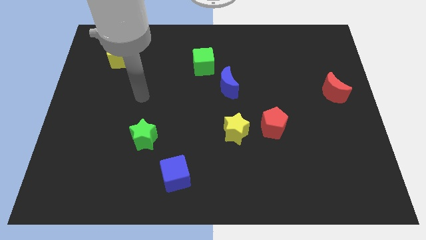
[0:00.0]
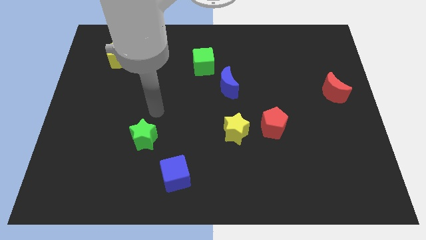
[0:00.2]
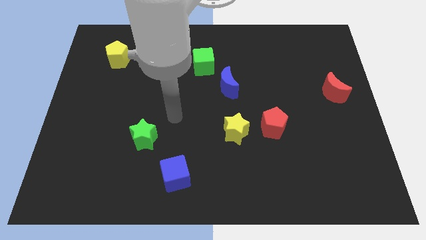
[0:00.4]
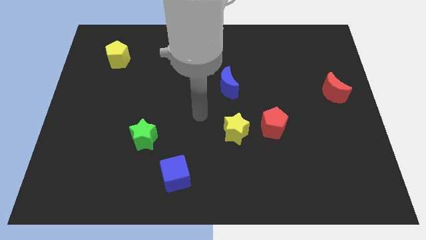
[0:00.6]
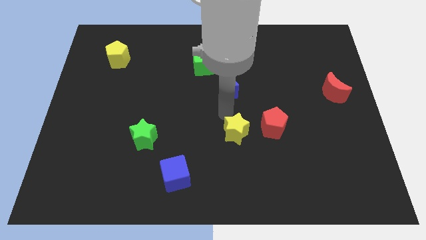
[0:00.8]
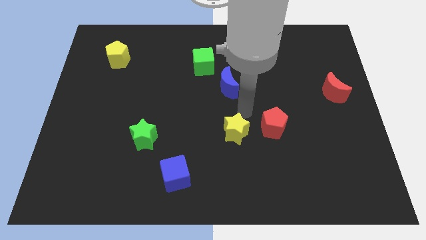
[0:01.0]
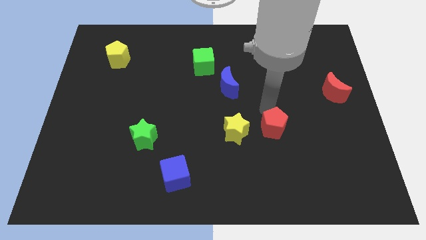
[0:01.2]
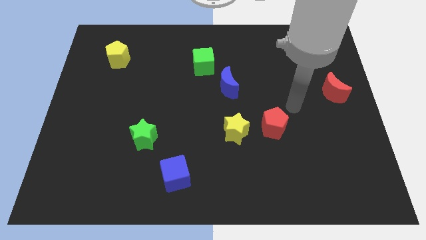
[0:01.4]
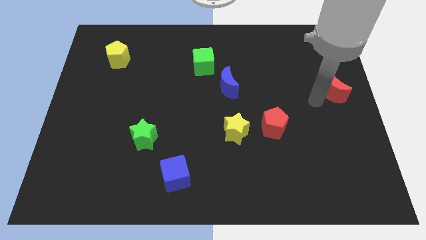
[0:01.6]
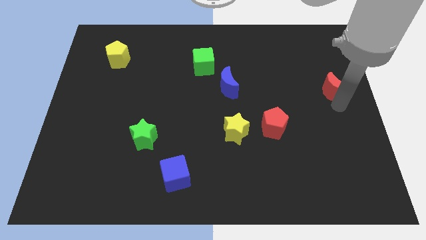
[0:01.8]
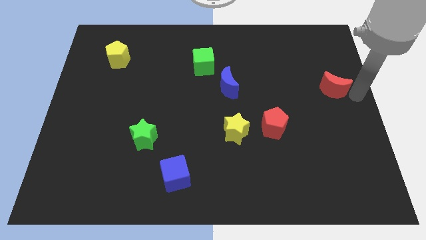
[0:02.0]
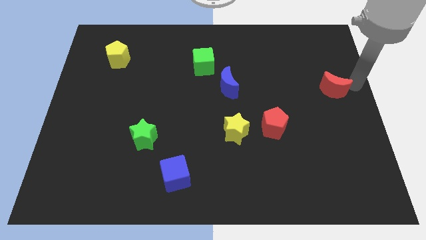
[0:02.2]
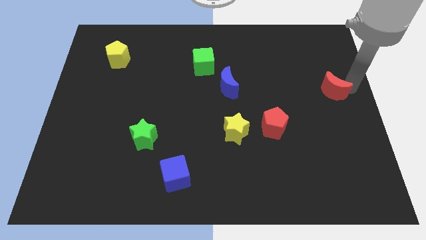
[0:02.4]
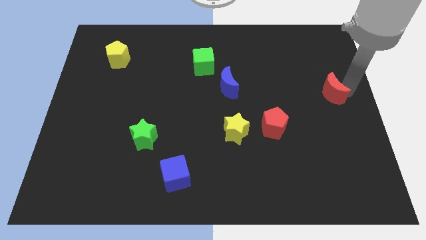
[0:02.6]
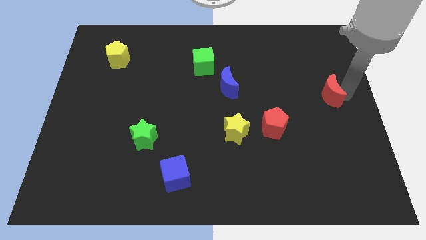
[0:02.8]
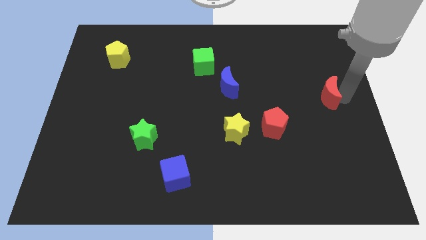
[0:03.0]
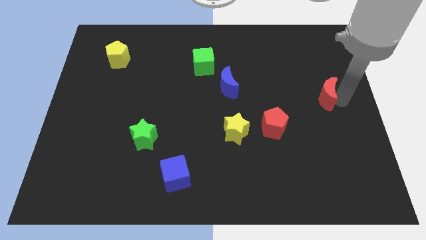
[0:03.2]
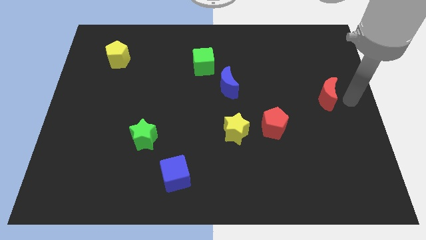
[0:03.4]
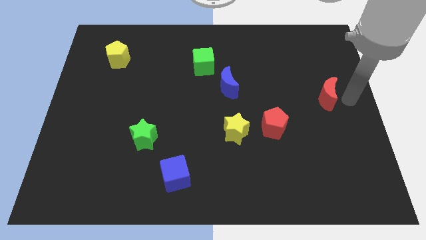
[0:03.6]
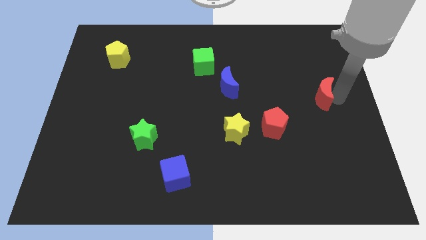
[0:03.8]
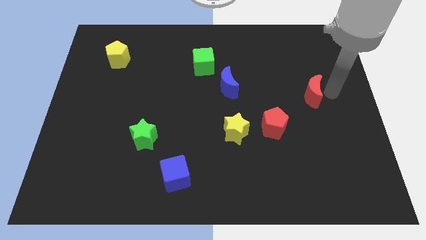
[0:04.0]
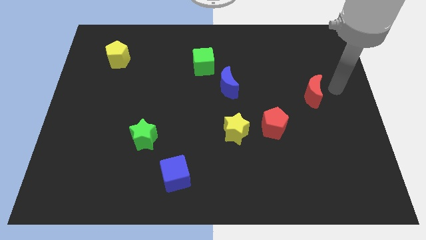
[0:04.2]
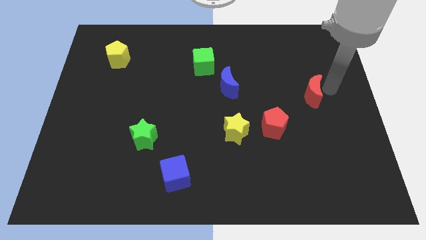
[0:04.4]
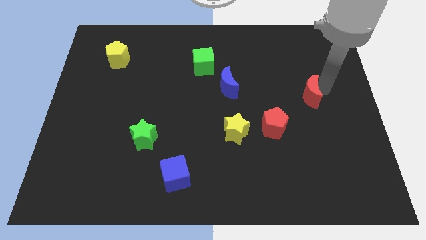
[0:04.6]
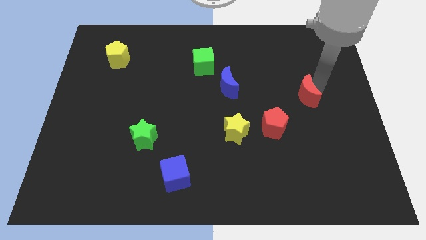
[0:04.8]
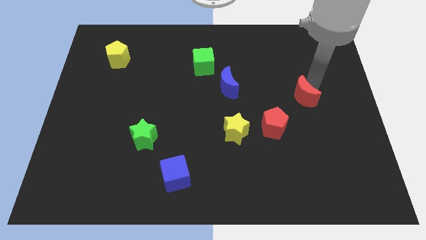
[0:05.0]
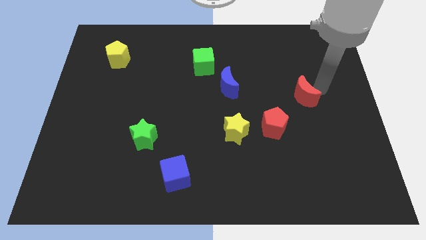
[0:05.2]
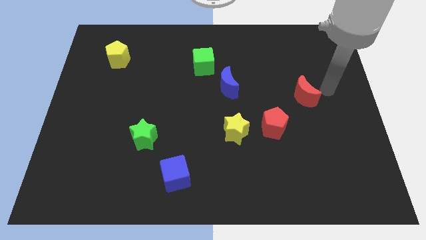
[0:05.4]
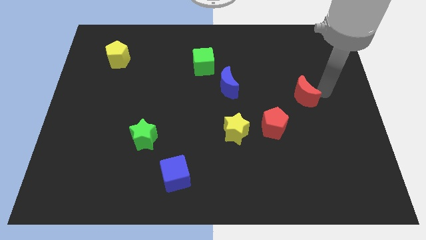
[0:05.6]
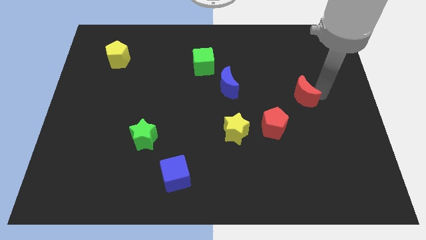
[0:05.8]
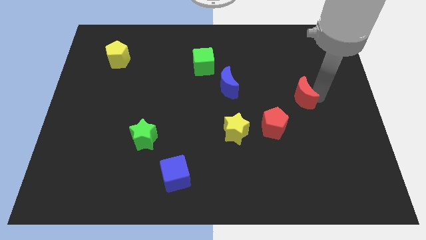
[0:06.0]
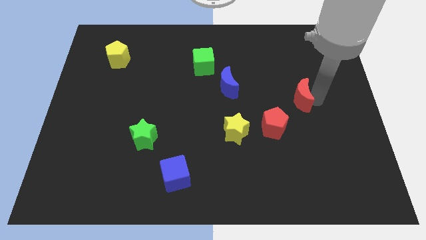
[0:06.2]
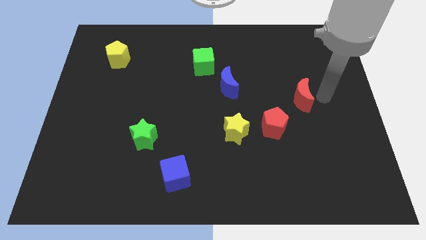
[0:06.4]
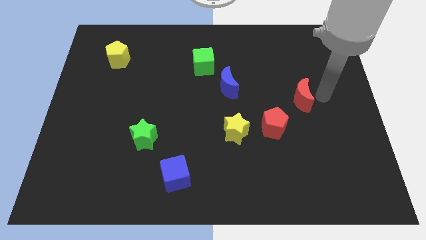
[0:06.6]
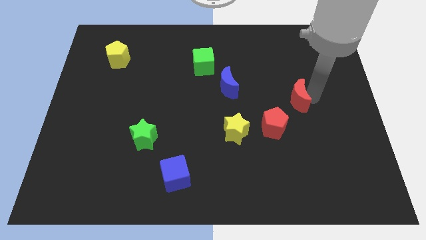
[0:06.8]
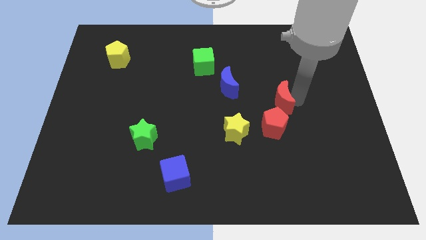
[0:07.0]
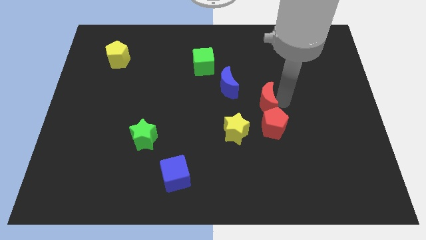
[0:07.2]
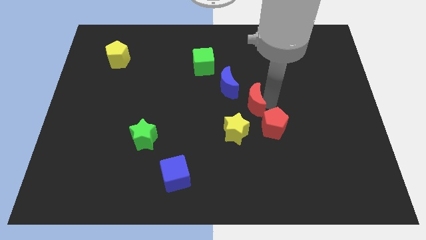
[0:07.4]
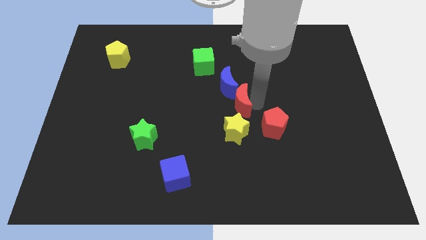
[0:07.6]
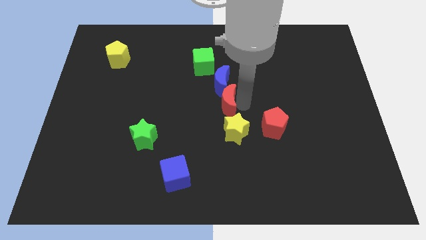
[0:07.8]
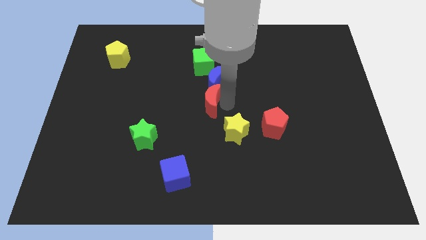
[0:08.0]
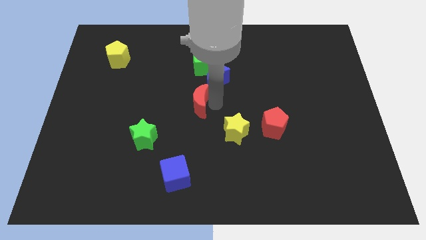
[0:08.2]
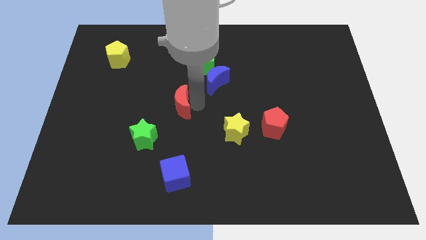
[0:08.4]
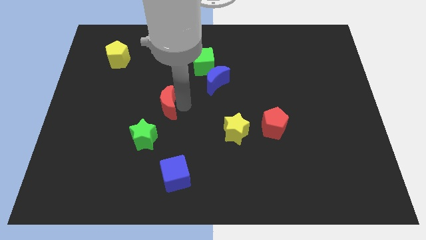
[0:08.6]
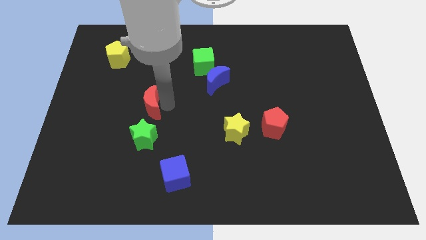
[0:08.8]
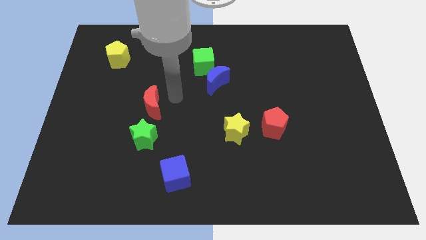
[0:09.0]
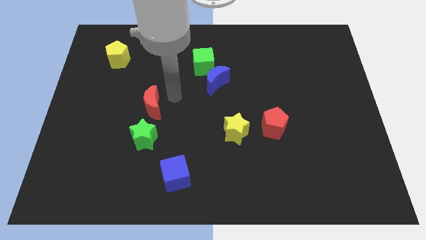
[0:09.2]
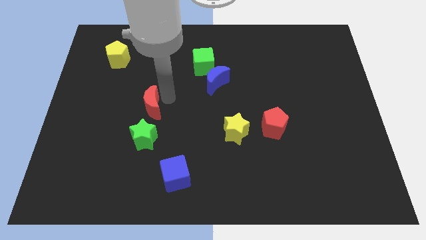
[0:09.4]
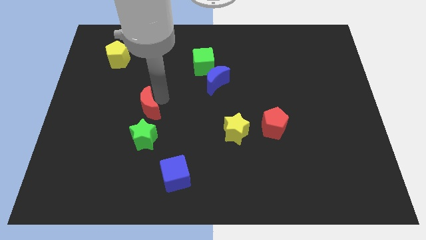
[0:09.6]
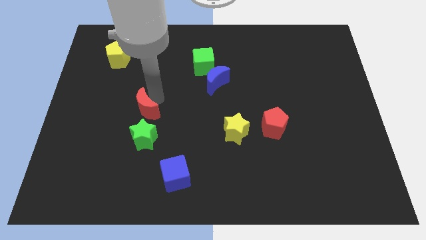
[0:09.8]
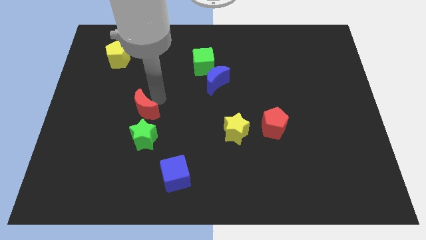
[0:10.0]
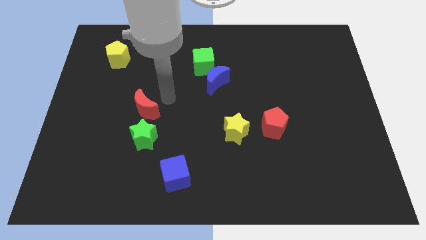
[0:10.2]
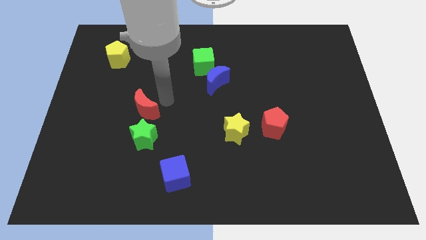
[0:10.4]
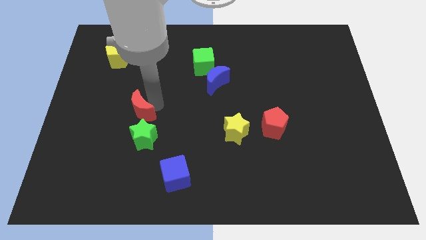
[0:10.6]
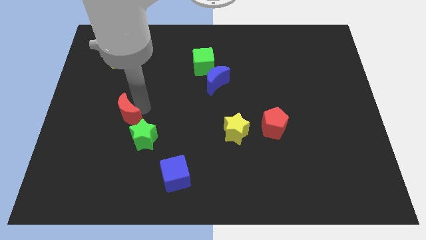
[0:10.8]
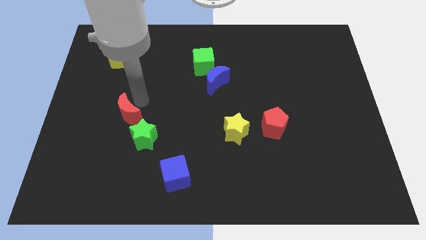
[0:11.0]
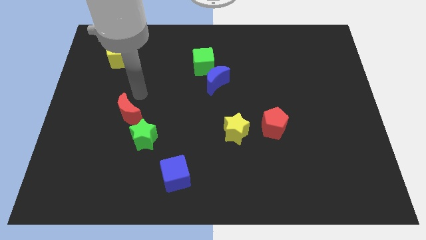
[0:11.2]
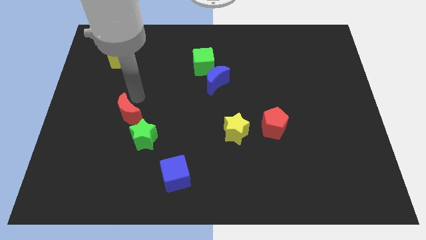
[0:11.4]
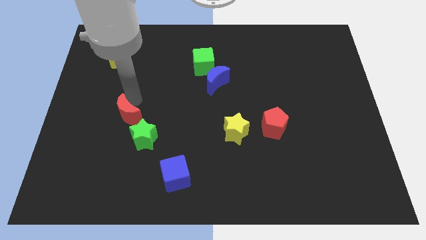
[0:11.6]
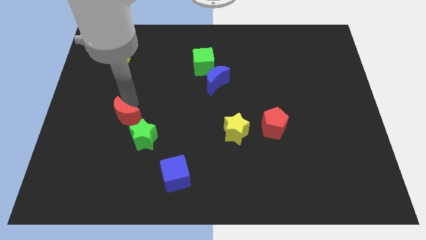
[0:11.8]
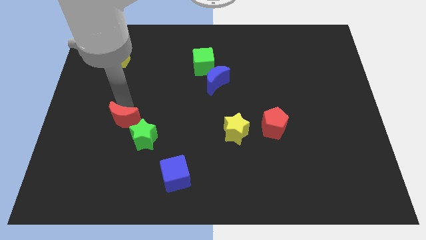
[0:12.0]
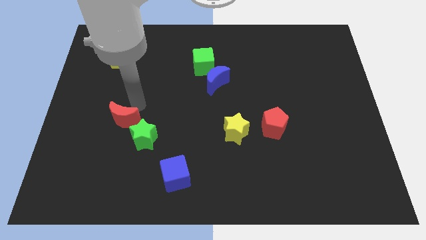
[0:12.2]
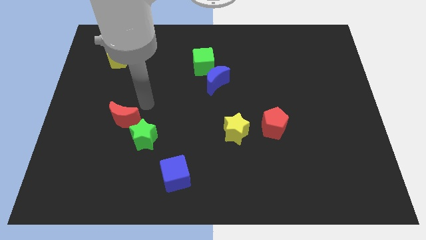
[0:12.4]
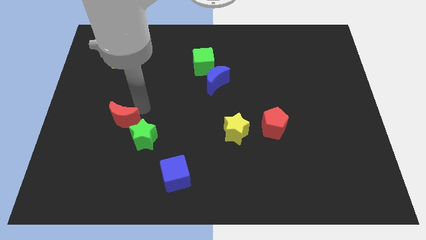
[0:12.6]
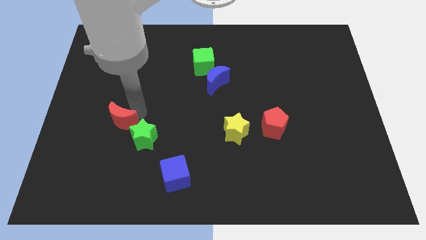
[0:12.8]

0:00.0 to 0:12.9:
push the red moon to the left side of the green star
